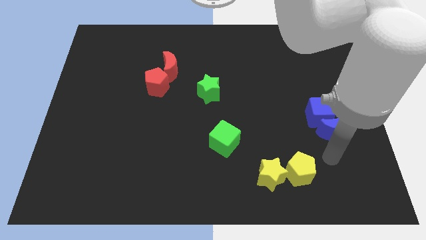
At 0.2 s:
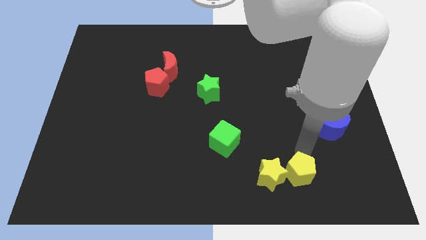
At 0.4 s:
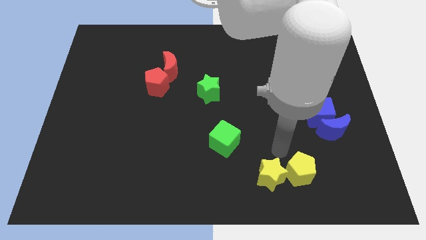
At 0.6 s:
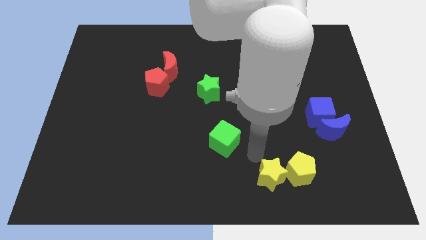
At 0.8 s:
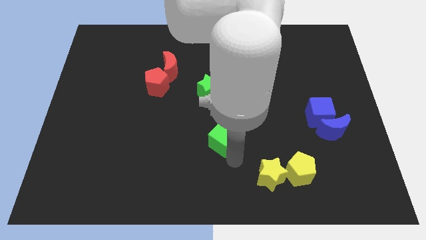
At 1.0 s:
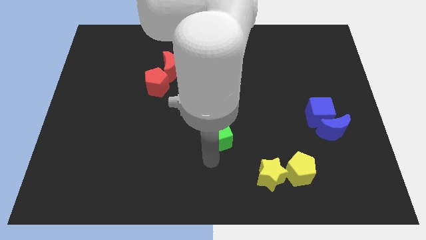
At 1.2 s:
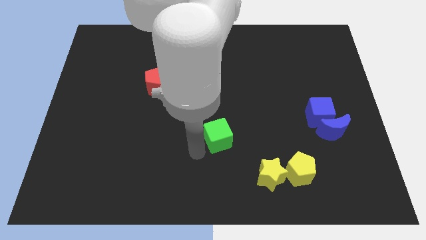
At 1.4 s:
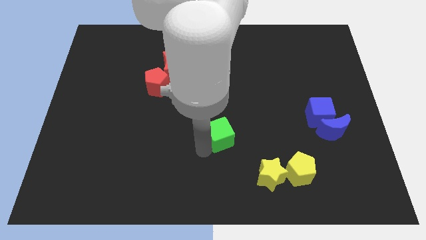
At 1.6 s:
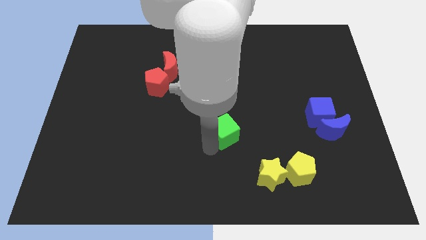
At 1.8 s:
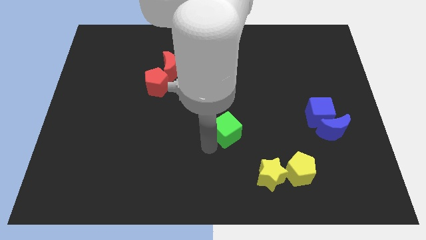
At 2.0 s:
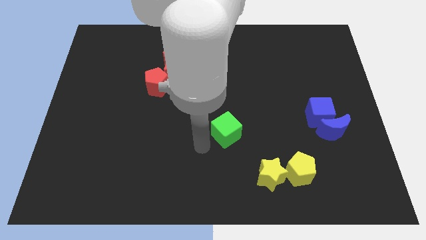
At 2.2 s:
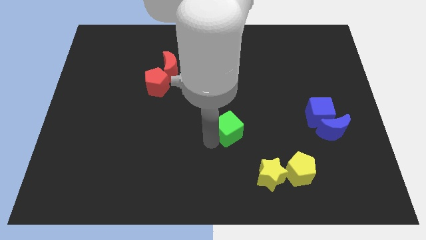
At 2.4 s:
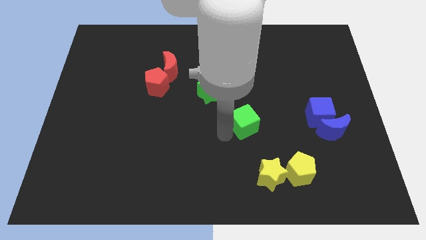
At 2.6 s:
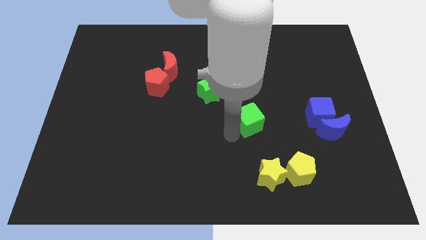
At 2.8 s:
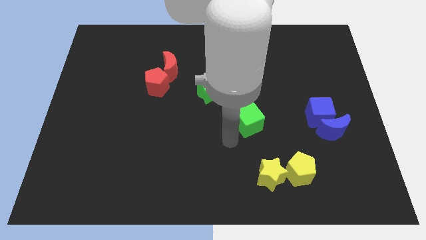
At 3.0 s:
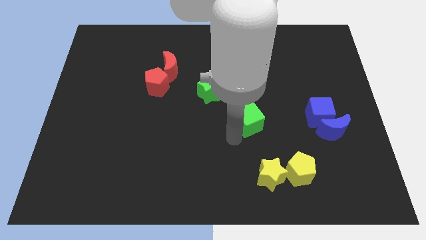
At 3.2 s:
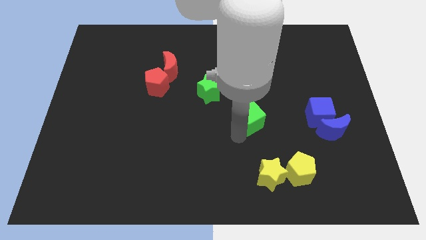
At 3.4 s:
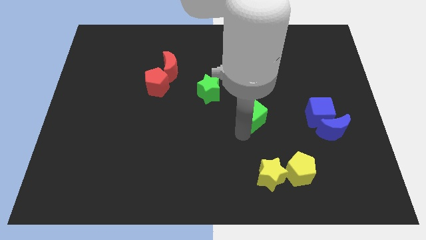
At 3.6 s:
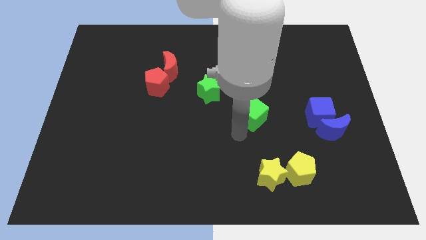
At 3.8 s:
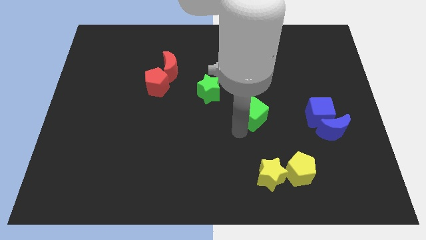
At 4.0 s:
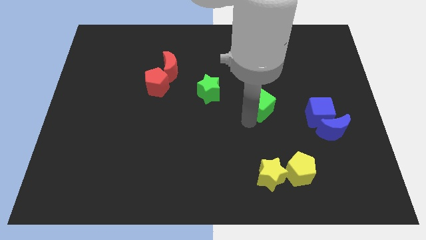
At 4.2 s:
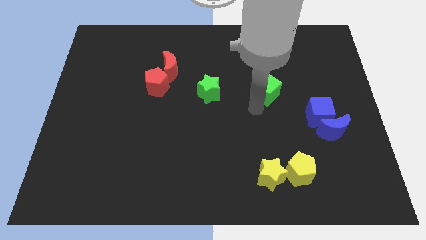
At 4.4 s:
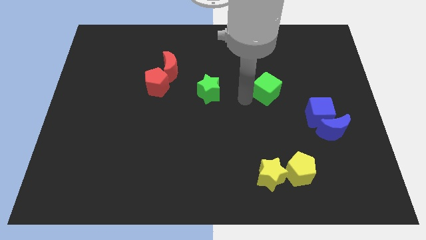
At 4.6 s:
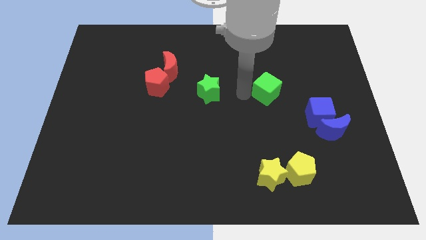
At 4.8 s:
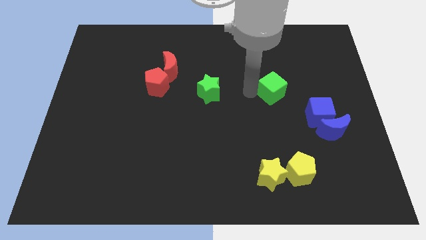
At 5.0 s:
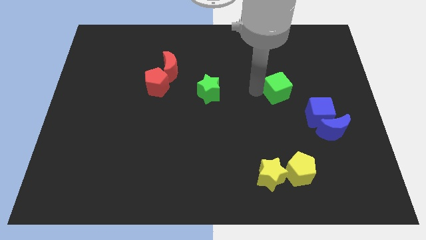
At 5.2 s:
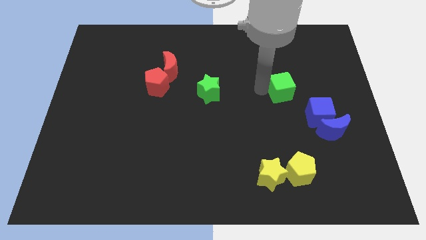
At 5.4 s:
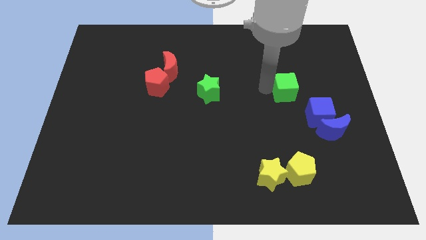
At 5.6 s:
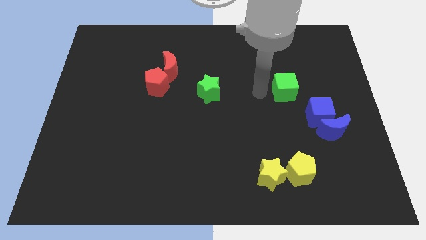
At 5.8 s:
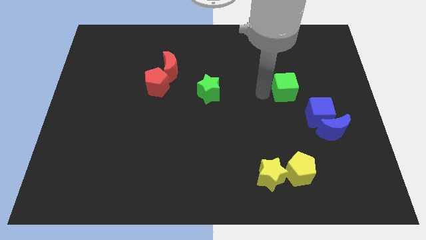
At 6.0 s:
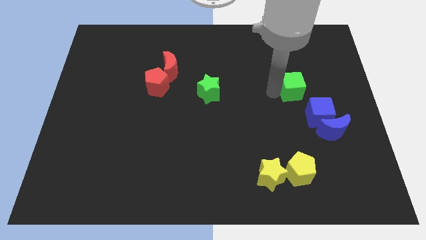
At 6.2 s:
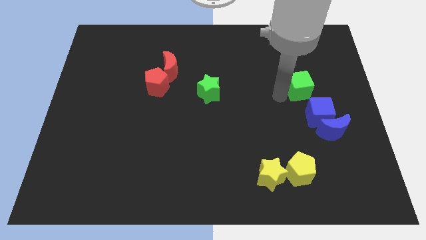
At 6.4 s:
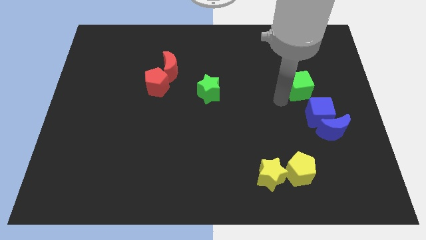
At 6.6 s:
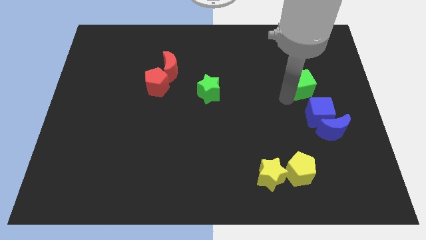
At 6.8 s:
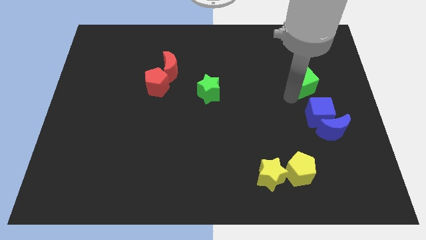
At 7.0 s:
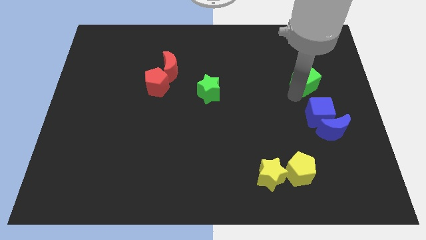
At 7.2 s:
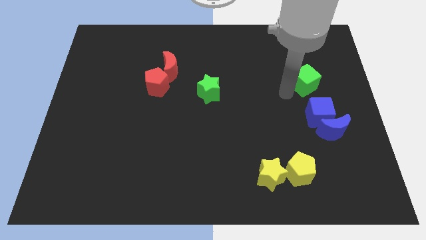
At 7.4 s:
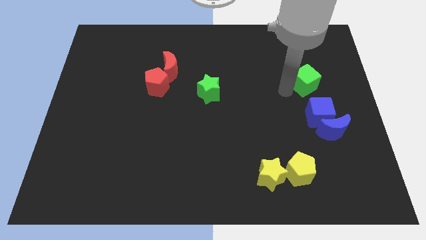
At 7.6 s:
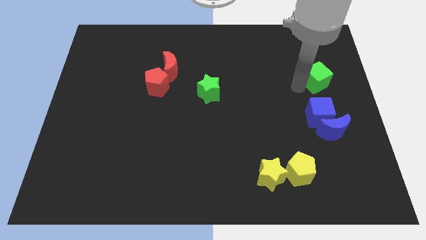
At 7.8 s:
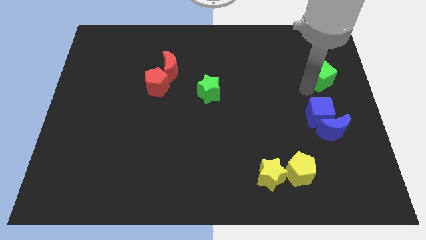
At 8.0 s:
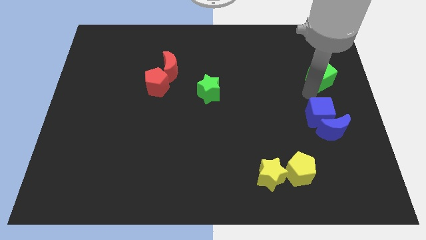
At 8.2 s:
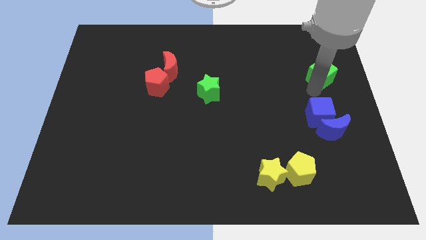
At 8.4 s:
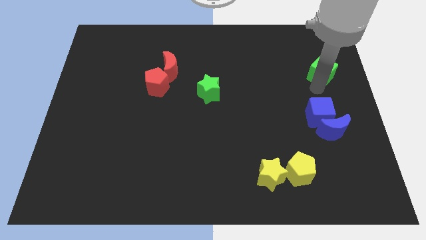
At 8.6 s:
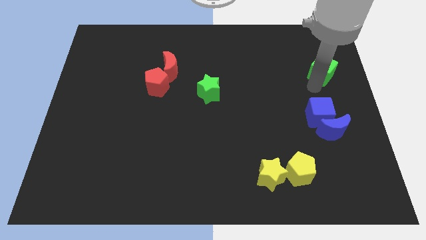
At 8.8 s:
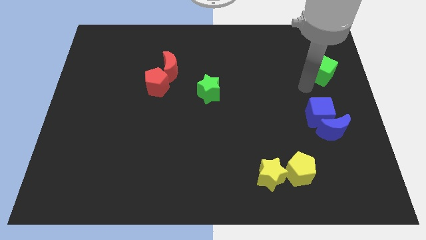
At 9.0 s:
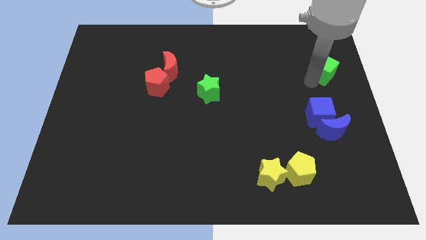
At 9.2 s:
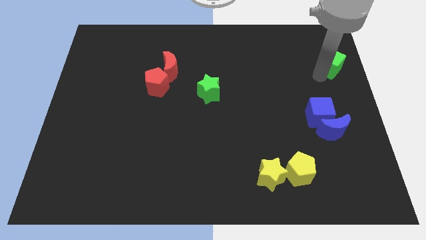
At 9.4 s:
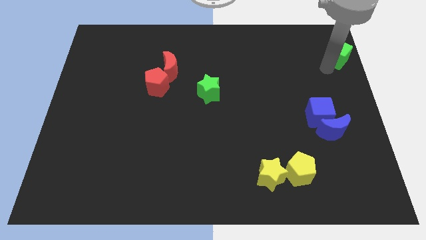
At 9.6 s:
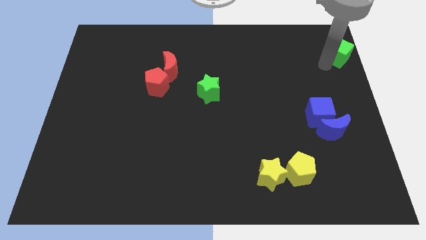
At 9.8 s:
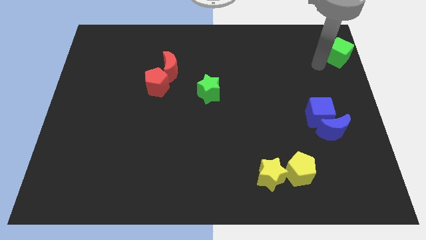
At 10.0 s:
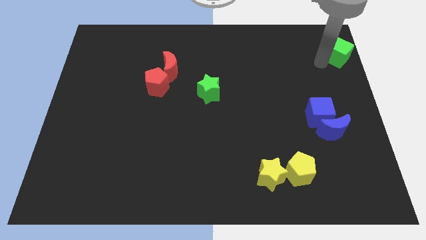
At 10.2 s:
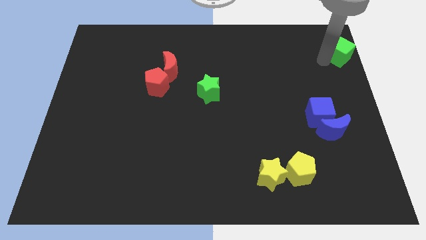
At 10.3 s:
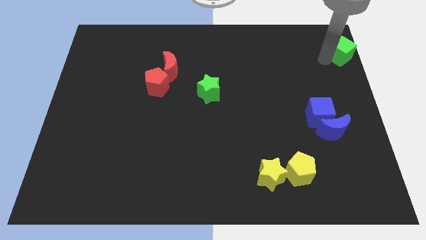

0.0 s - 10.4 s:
move the green cube to the top right corner

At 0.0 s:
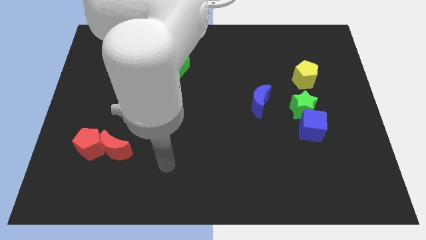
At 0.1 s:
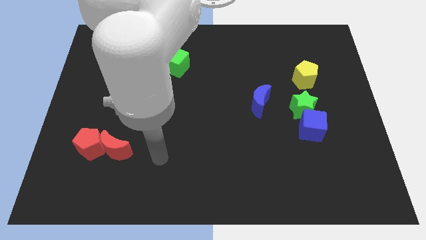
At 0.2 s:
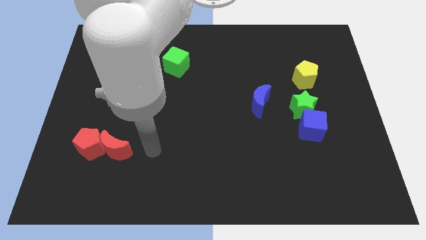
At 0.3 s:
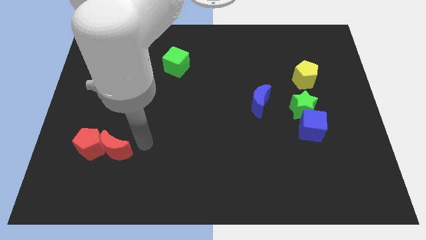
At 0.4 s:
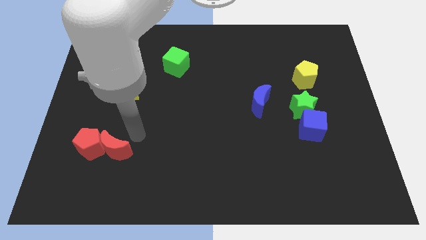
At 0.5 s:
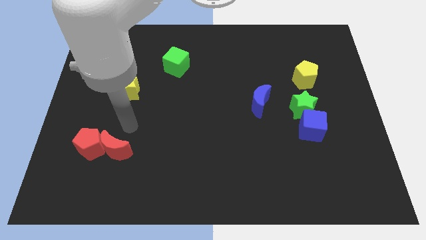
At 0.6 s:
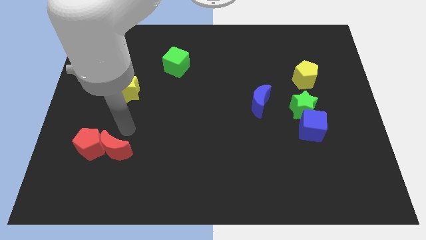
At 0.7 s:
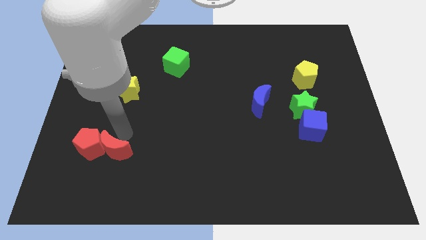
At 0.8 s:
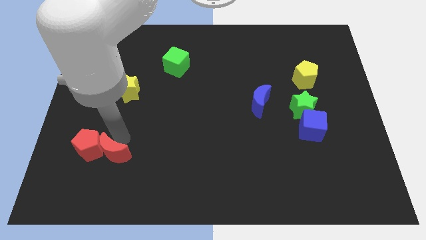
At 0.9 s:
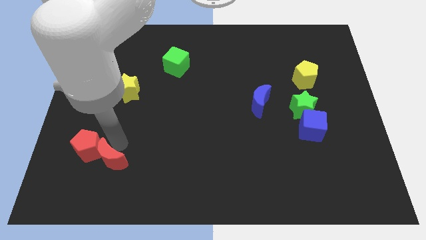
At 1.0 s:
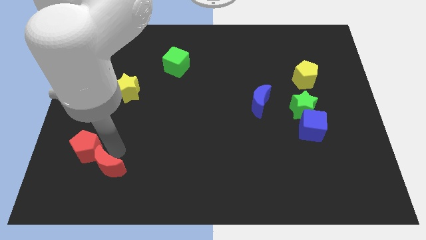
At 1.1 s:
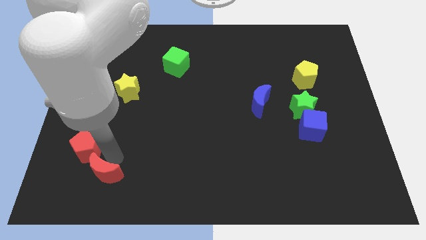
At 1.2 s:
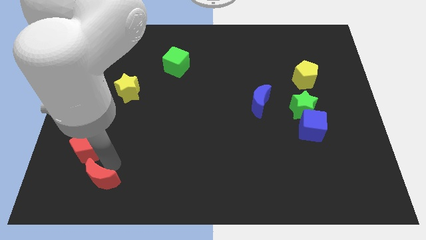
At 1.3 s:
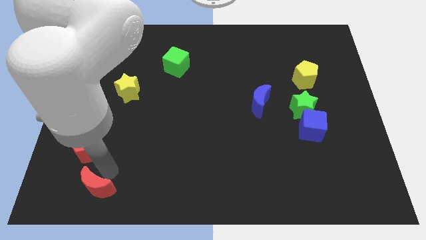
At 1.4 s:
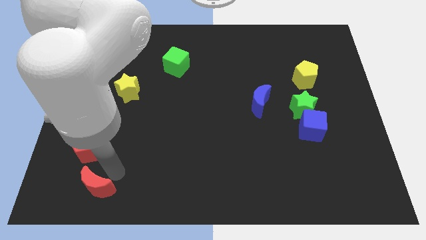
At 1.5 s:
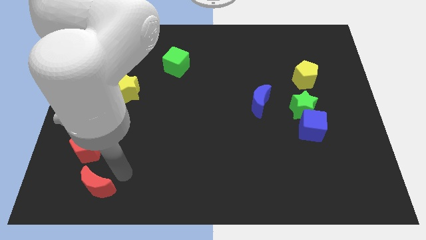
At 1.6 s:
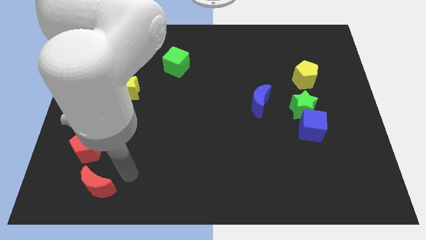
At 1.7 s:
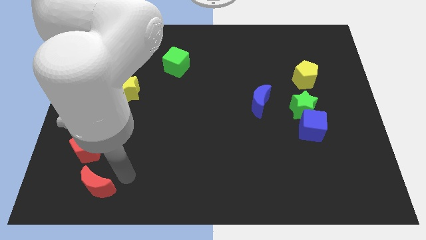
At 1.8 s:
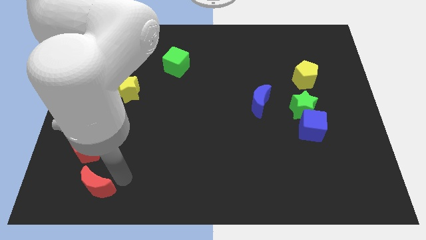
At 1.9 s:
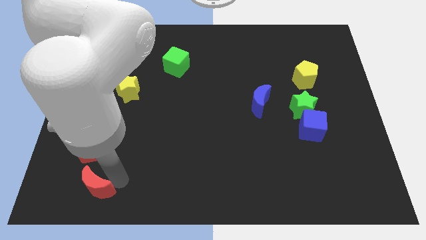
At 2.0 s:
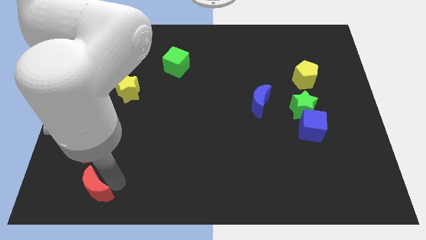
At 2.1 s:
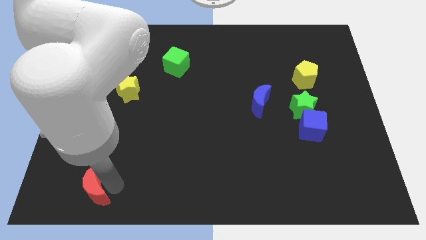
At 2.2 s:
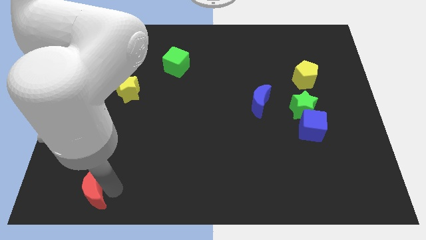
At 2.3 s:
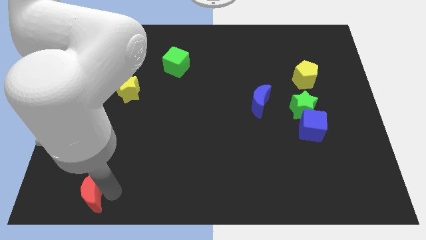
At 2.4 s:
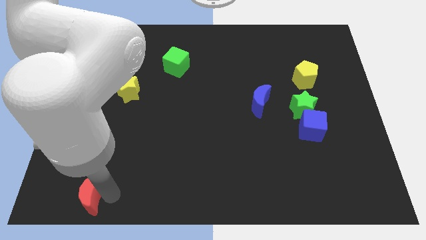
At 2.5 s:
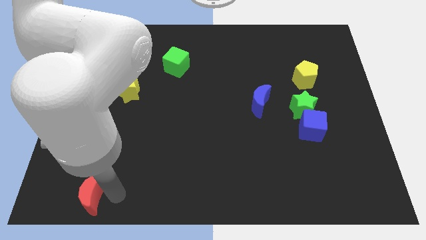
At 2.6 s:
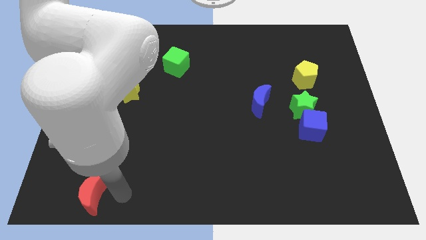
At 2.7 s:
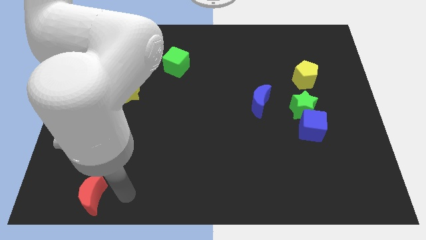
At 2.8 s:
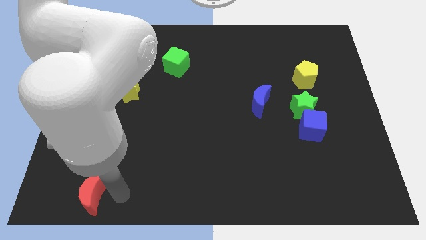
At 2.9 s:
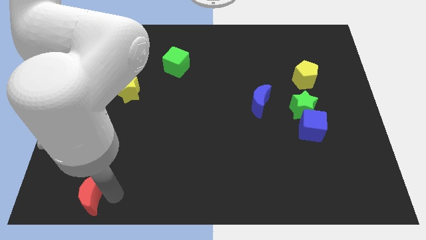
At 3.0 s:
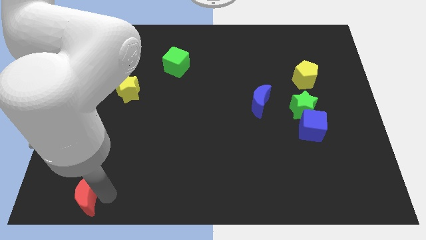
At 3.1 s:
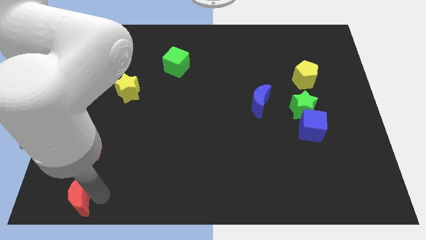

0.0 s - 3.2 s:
move the red moon to the bottom left of the board
